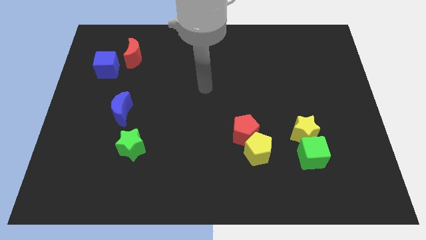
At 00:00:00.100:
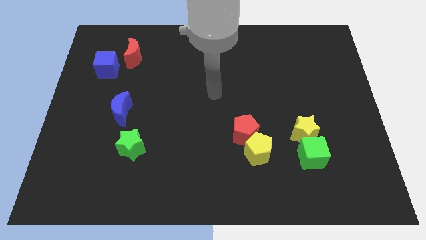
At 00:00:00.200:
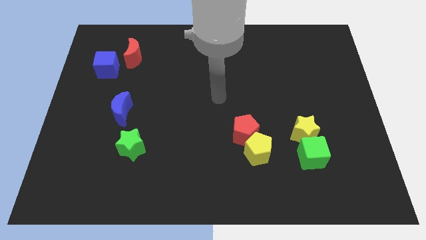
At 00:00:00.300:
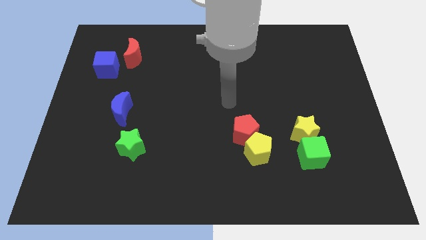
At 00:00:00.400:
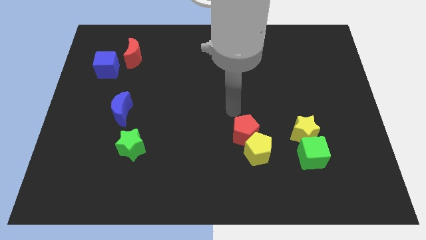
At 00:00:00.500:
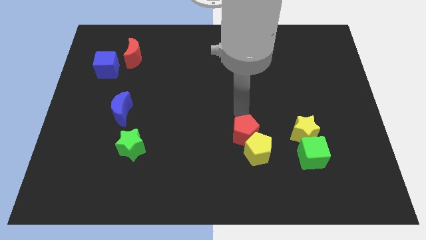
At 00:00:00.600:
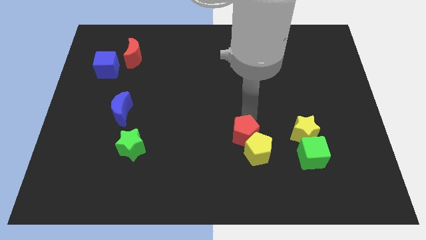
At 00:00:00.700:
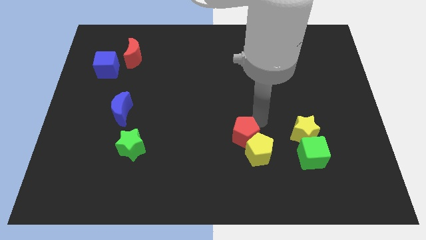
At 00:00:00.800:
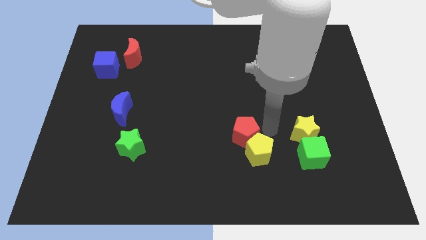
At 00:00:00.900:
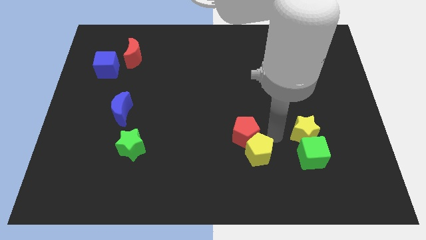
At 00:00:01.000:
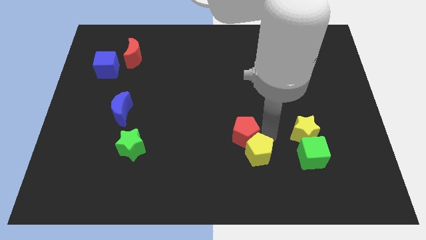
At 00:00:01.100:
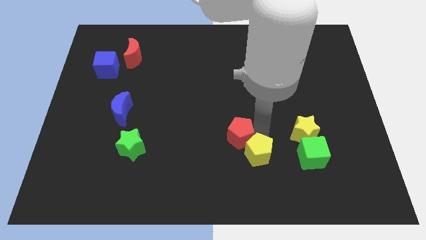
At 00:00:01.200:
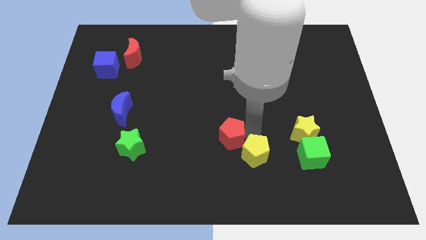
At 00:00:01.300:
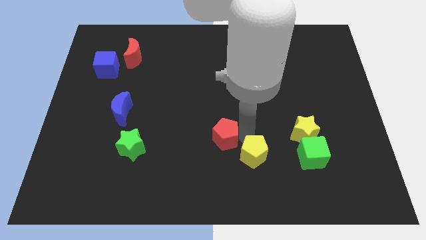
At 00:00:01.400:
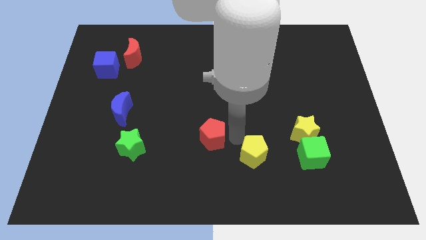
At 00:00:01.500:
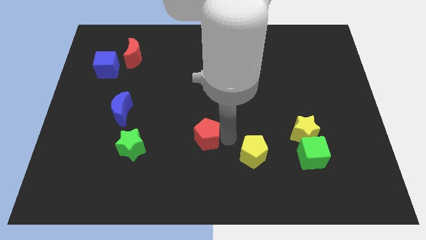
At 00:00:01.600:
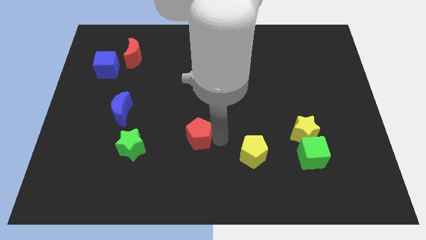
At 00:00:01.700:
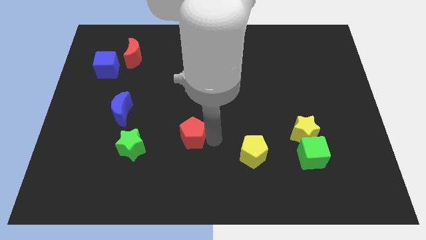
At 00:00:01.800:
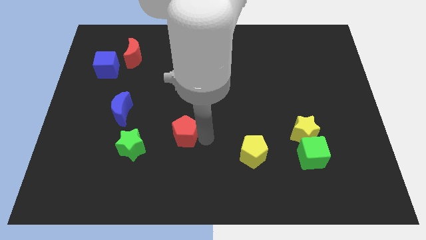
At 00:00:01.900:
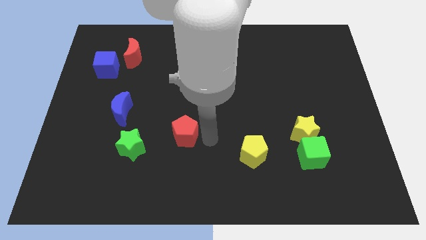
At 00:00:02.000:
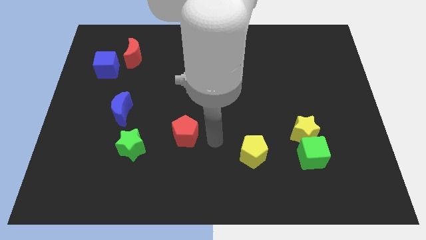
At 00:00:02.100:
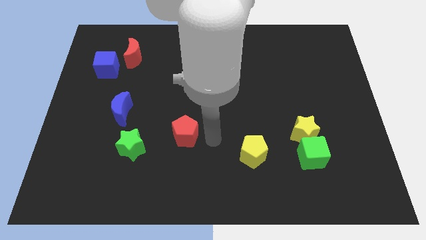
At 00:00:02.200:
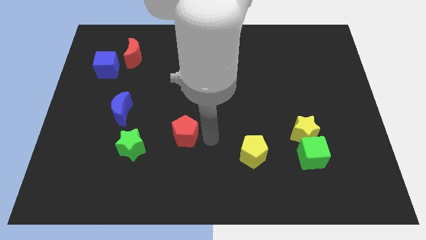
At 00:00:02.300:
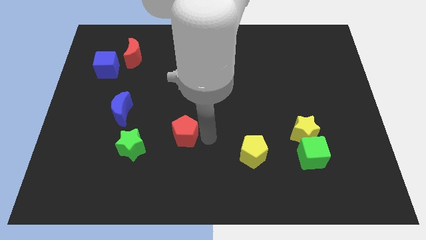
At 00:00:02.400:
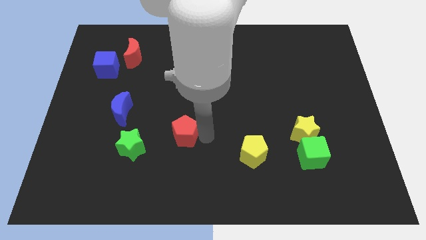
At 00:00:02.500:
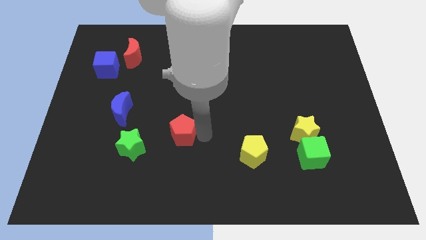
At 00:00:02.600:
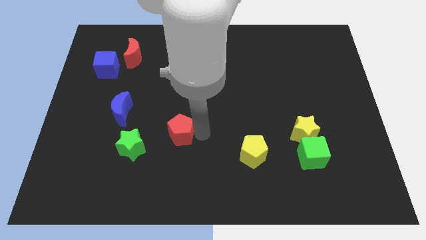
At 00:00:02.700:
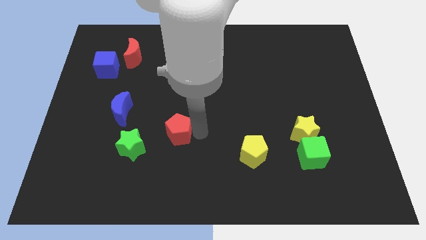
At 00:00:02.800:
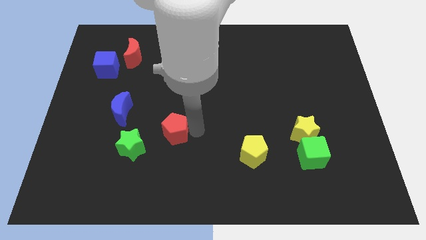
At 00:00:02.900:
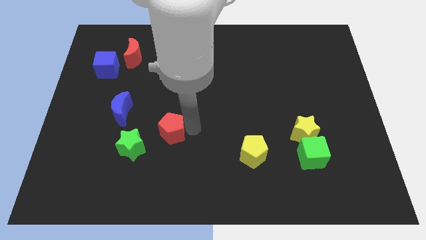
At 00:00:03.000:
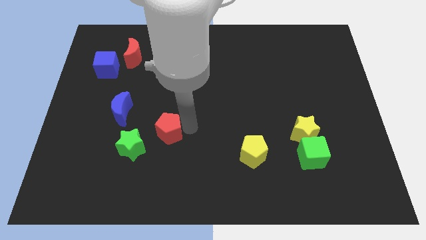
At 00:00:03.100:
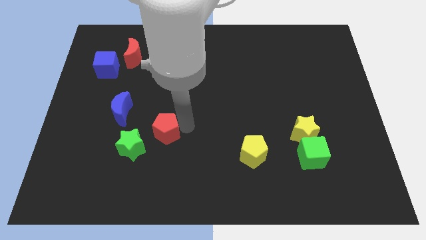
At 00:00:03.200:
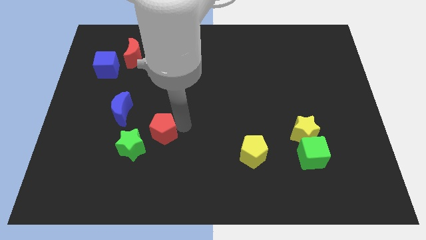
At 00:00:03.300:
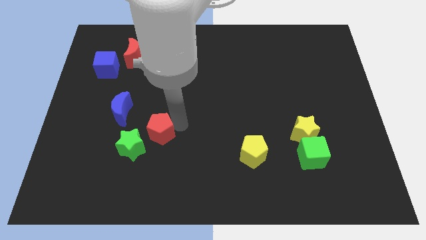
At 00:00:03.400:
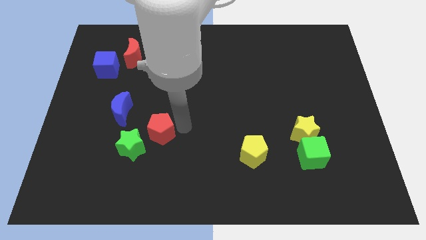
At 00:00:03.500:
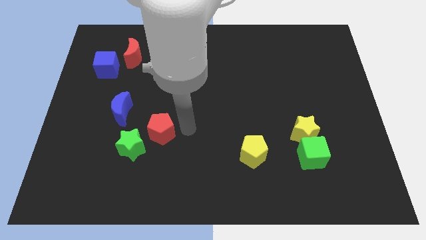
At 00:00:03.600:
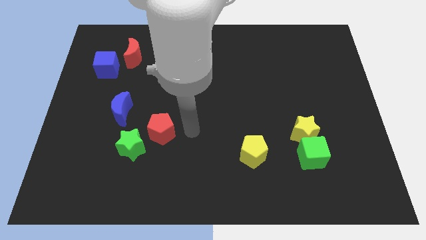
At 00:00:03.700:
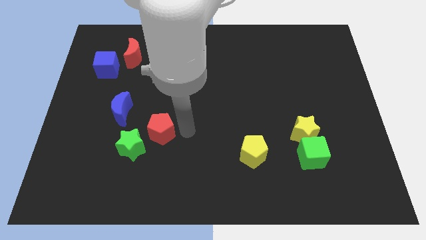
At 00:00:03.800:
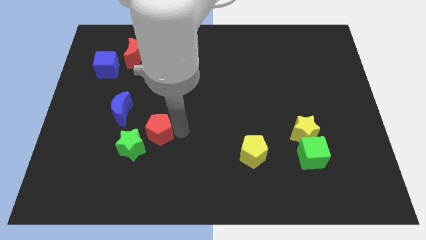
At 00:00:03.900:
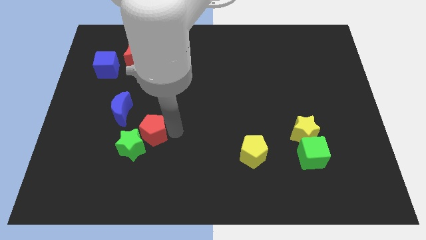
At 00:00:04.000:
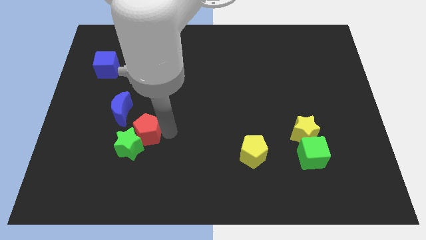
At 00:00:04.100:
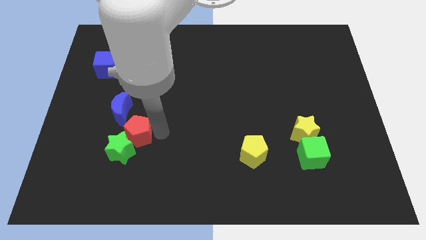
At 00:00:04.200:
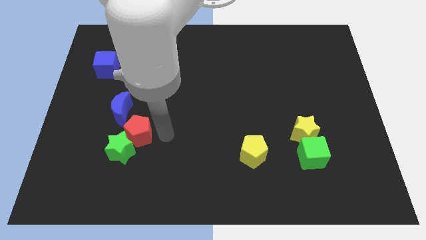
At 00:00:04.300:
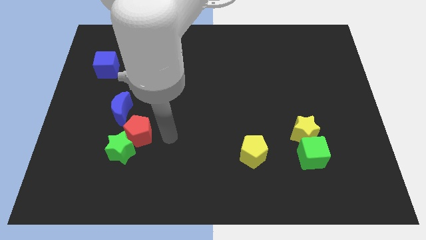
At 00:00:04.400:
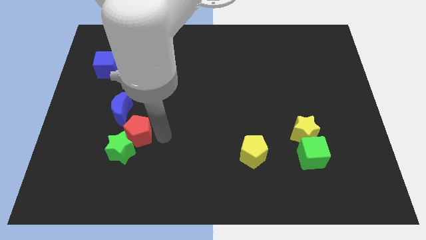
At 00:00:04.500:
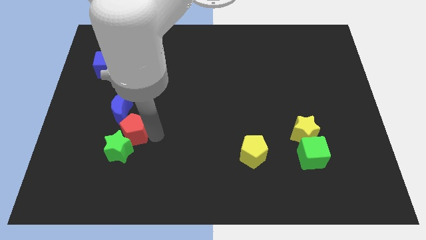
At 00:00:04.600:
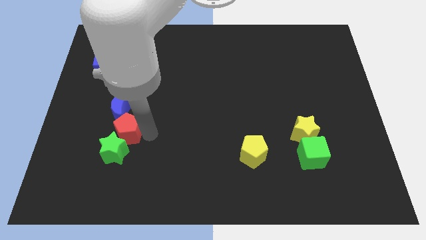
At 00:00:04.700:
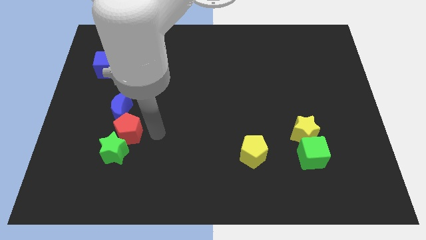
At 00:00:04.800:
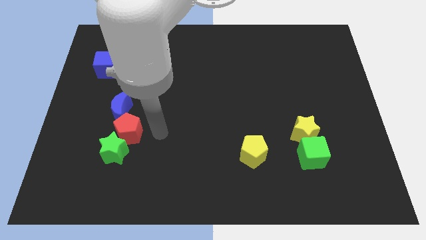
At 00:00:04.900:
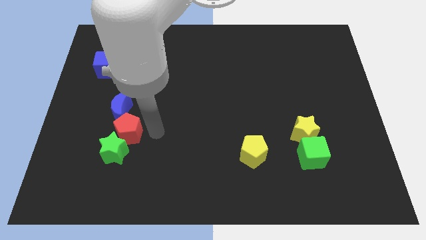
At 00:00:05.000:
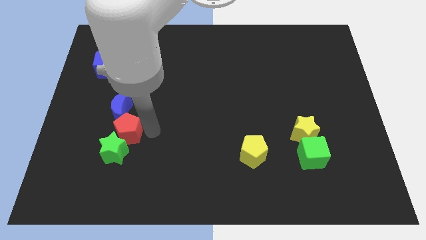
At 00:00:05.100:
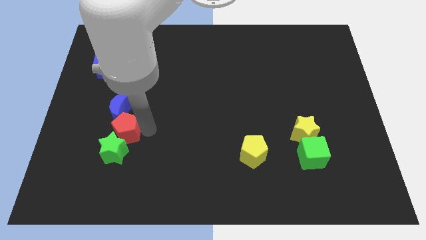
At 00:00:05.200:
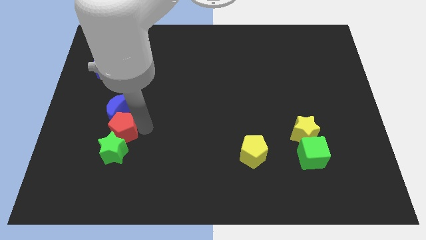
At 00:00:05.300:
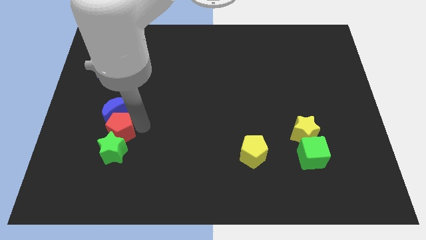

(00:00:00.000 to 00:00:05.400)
move the red pentagon diagonally down and to the left of the blue moon

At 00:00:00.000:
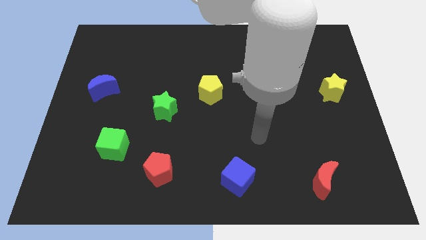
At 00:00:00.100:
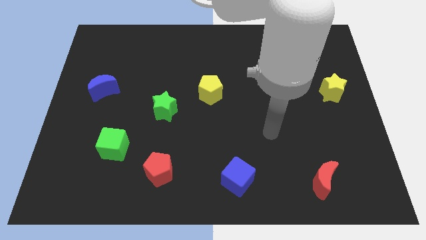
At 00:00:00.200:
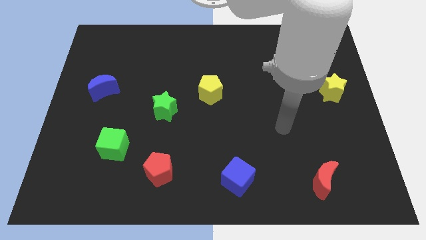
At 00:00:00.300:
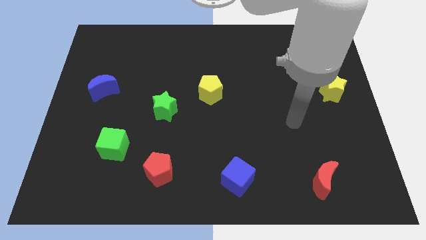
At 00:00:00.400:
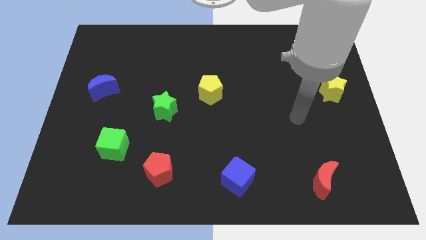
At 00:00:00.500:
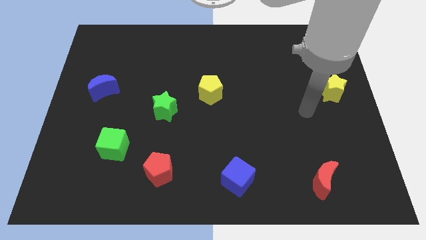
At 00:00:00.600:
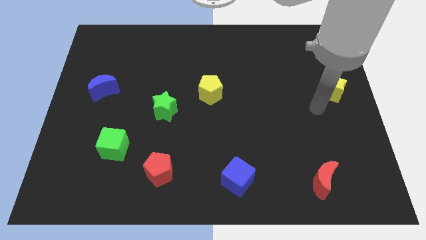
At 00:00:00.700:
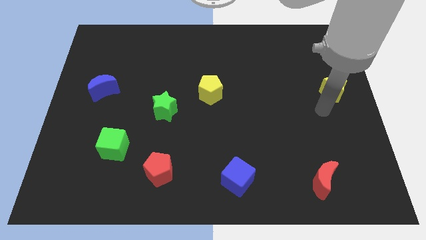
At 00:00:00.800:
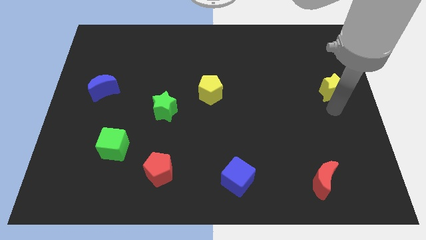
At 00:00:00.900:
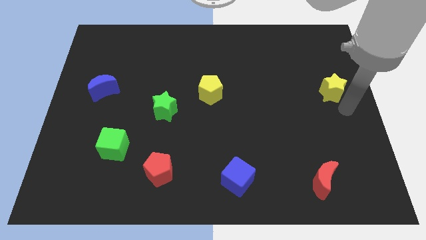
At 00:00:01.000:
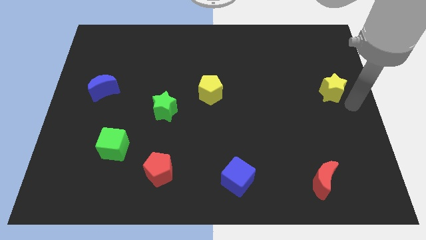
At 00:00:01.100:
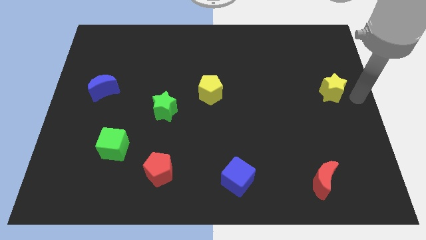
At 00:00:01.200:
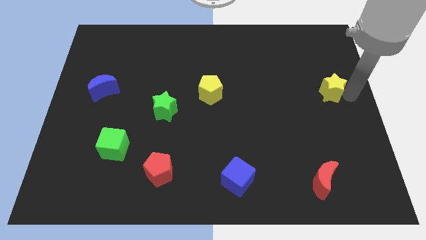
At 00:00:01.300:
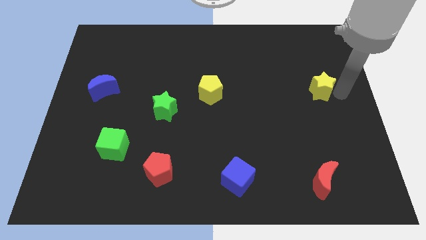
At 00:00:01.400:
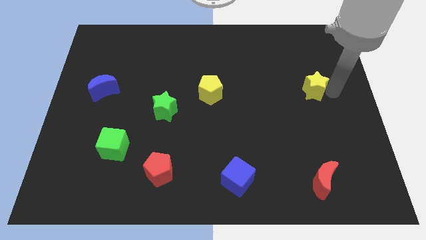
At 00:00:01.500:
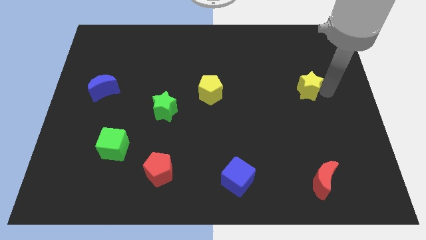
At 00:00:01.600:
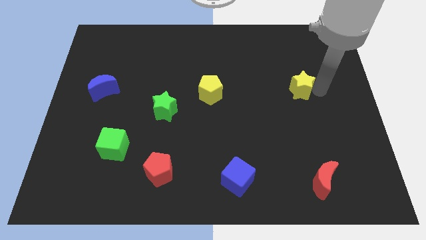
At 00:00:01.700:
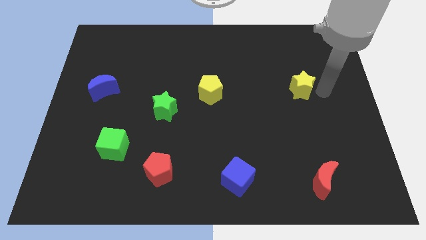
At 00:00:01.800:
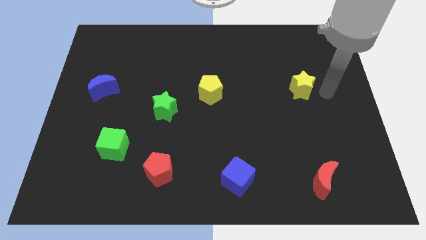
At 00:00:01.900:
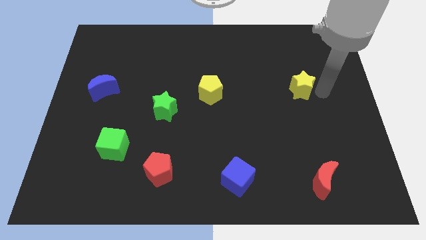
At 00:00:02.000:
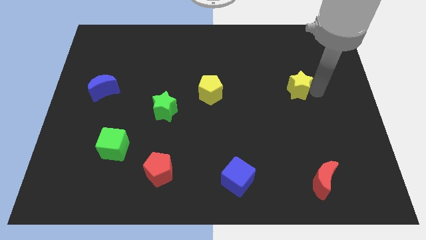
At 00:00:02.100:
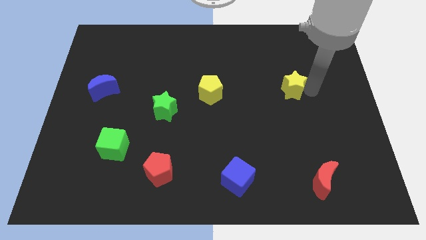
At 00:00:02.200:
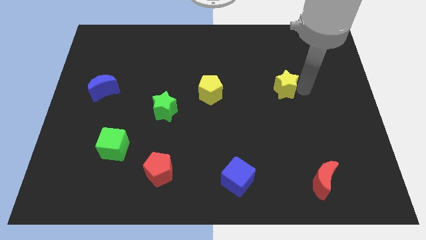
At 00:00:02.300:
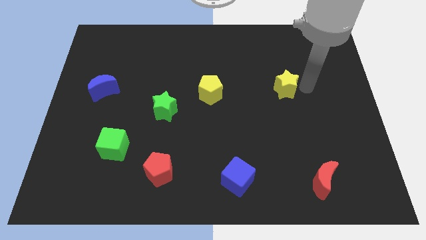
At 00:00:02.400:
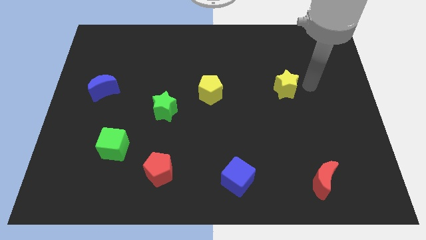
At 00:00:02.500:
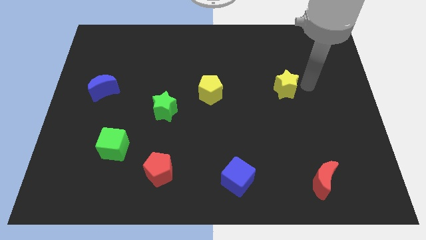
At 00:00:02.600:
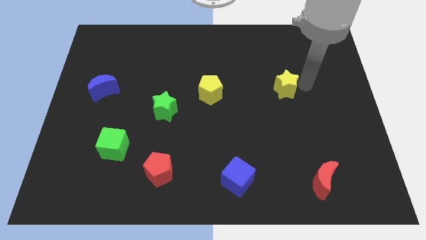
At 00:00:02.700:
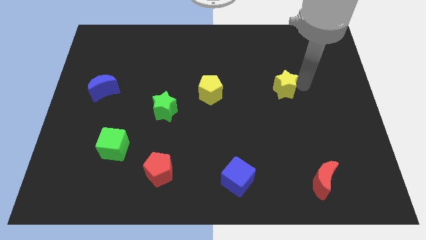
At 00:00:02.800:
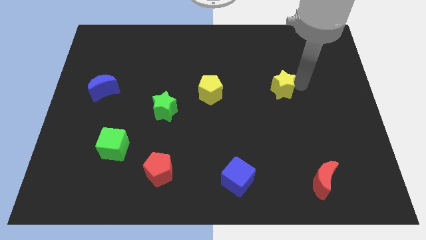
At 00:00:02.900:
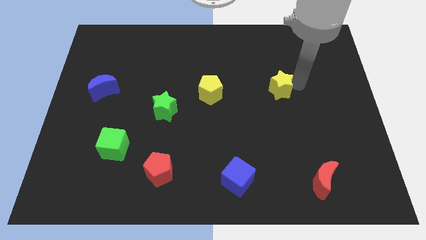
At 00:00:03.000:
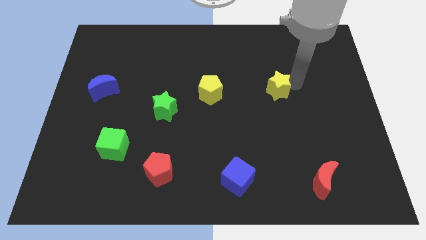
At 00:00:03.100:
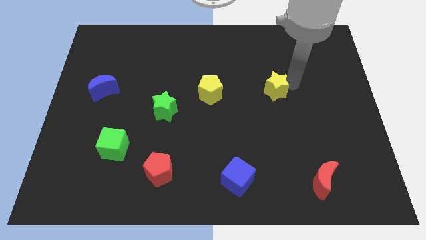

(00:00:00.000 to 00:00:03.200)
move the yellow star to the right of the yellow pentagon
